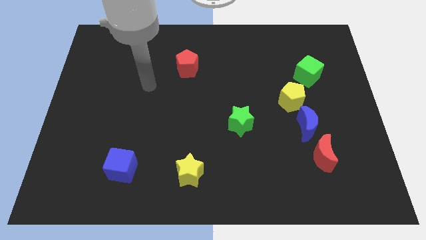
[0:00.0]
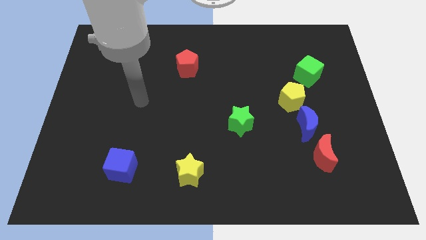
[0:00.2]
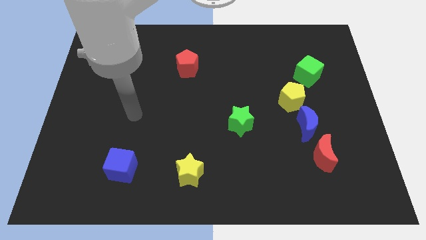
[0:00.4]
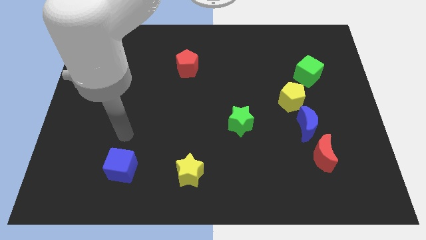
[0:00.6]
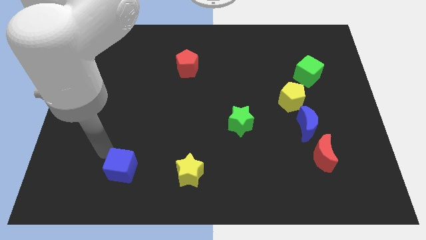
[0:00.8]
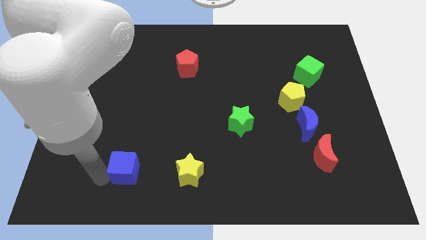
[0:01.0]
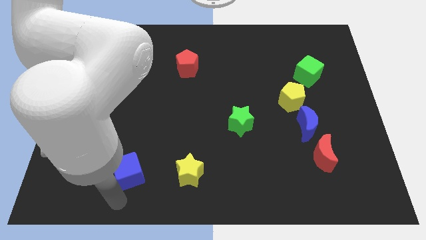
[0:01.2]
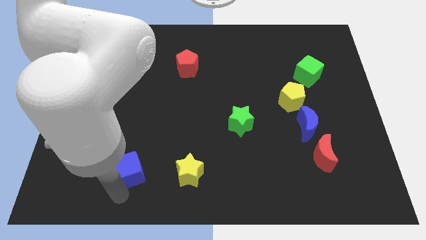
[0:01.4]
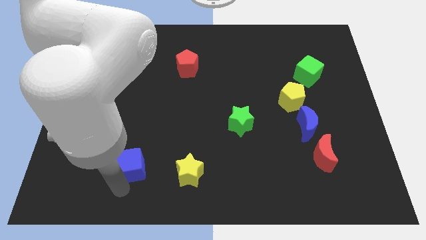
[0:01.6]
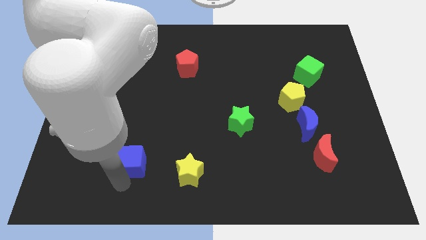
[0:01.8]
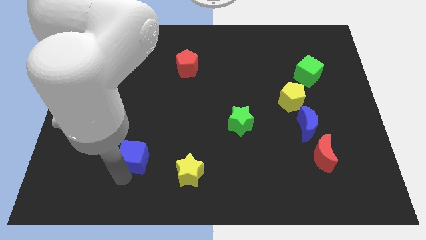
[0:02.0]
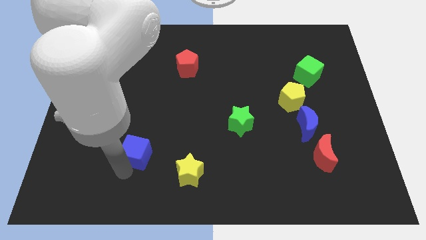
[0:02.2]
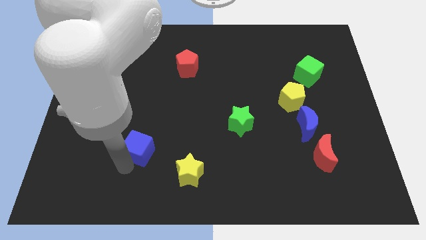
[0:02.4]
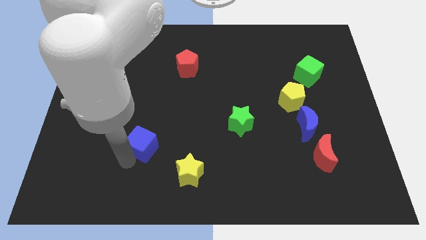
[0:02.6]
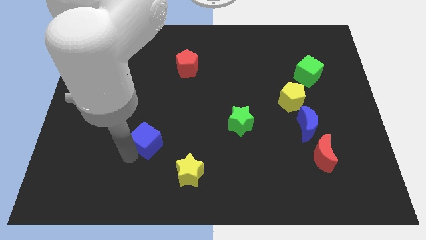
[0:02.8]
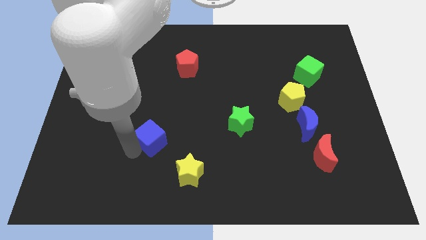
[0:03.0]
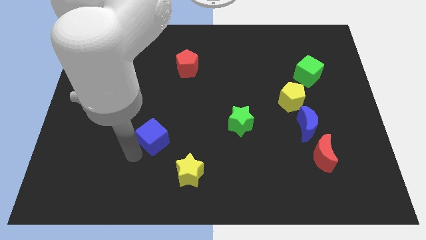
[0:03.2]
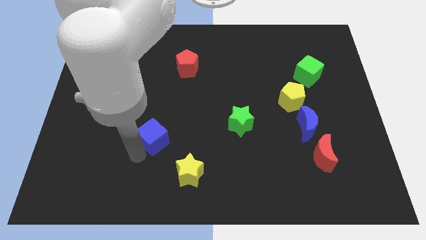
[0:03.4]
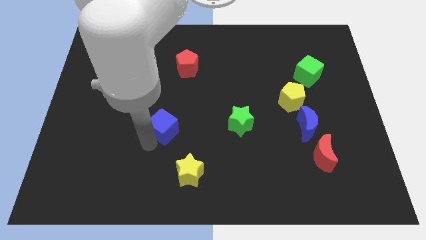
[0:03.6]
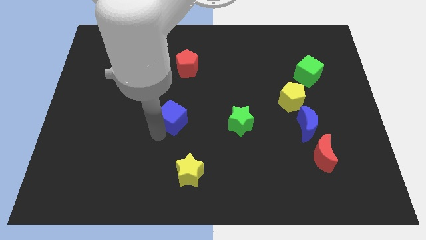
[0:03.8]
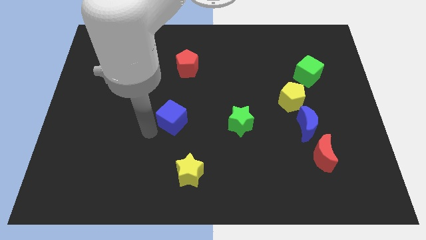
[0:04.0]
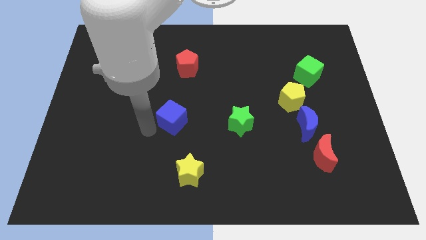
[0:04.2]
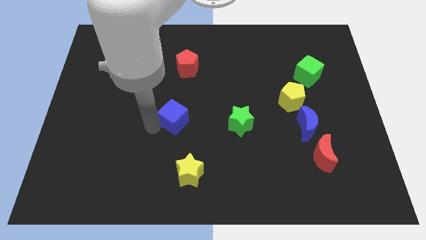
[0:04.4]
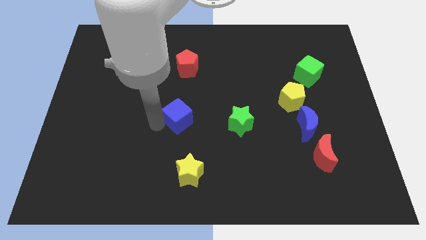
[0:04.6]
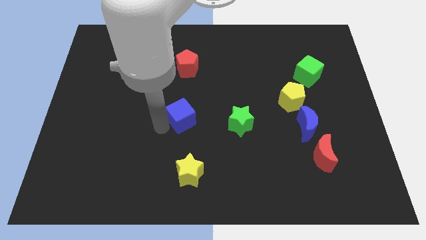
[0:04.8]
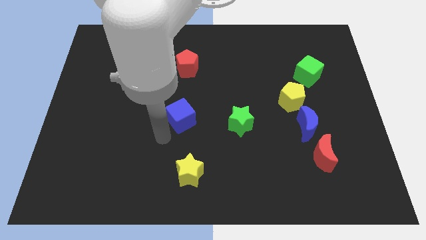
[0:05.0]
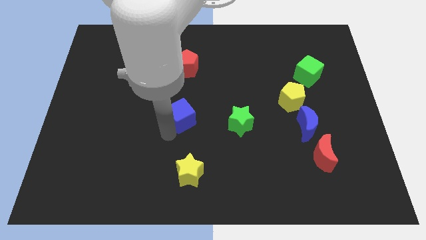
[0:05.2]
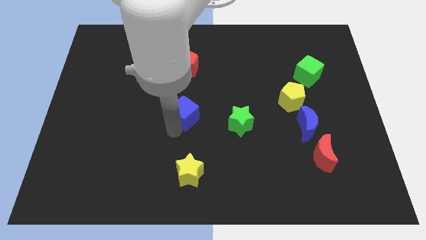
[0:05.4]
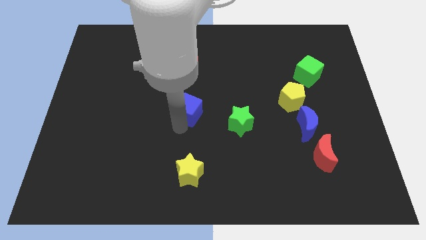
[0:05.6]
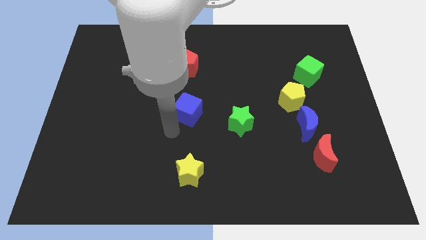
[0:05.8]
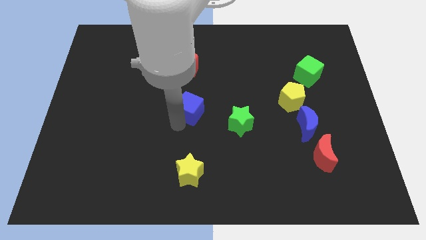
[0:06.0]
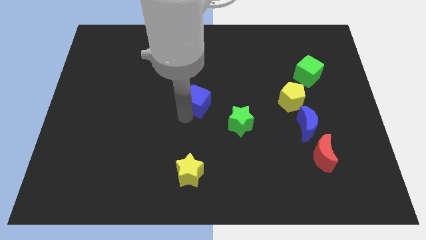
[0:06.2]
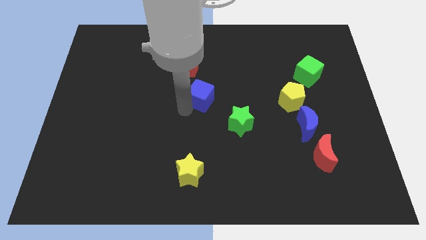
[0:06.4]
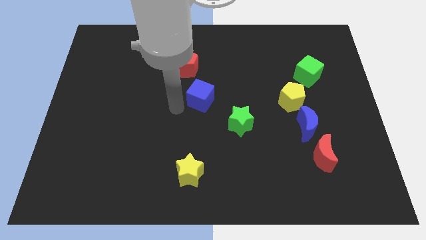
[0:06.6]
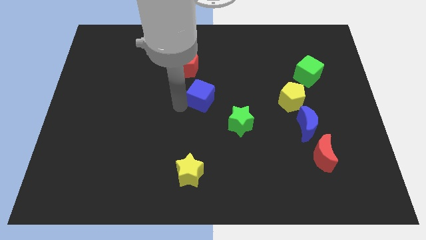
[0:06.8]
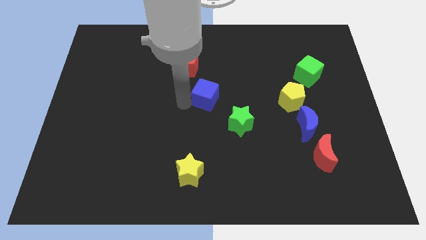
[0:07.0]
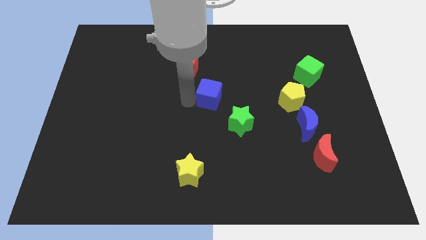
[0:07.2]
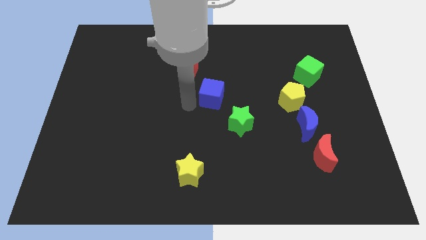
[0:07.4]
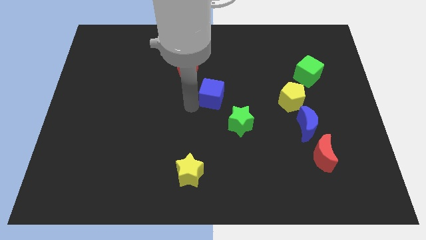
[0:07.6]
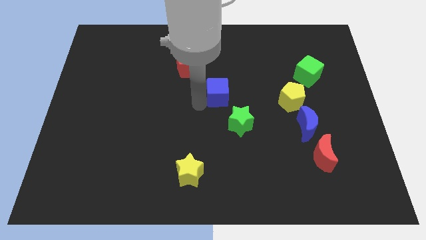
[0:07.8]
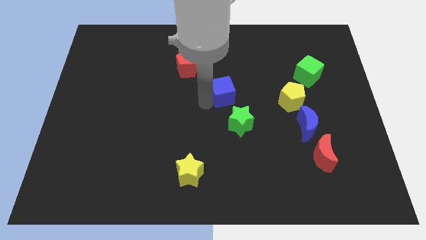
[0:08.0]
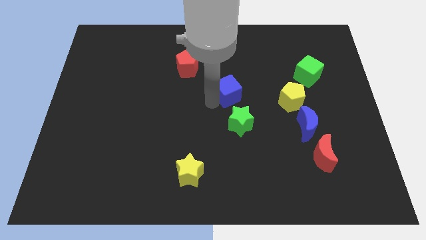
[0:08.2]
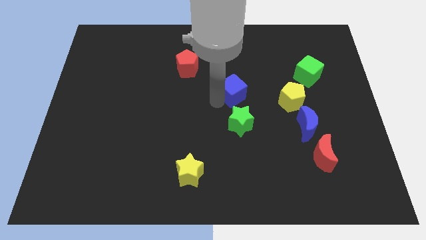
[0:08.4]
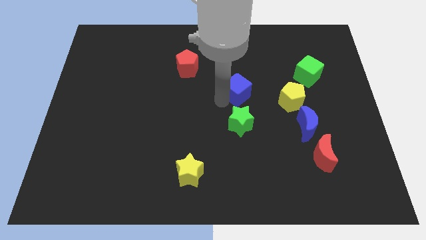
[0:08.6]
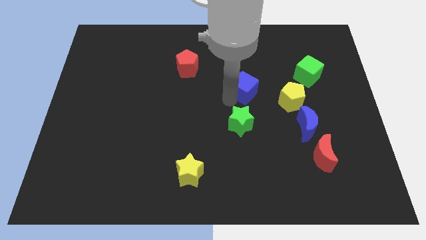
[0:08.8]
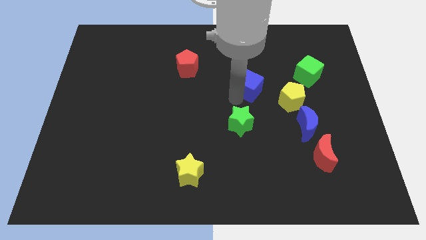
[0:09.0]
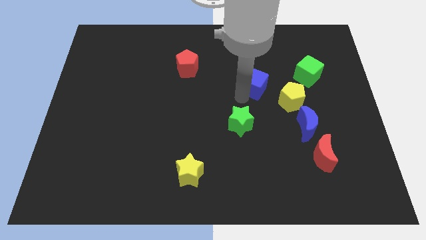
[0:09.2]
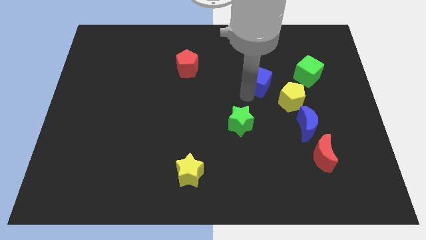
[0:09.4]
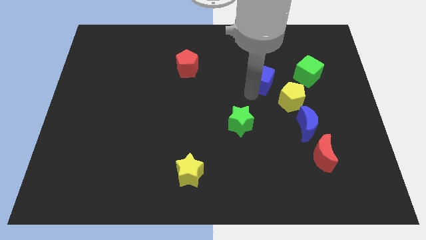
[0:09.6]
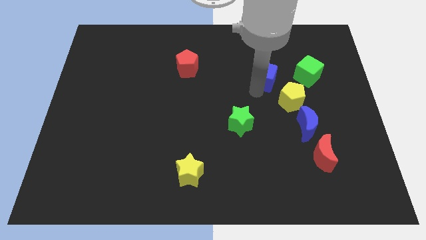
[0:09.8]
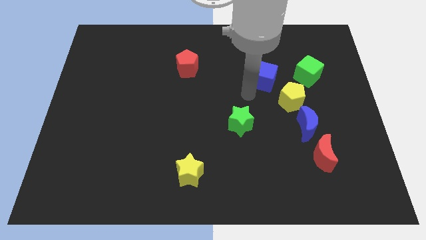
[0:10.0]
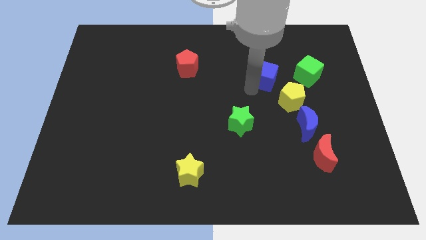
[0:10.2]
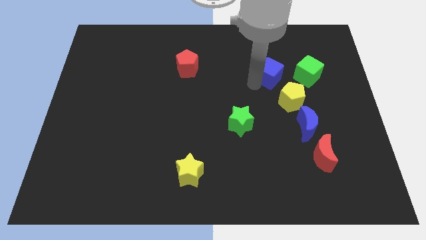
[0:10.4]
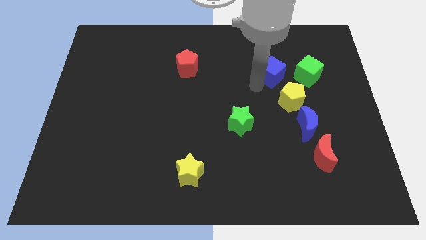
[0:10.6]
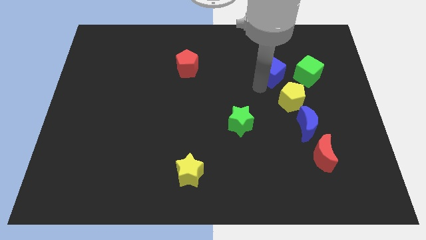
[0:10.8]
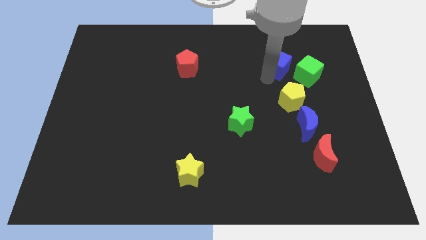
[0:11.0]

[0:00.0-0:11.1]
push the blue cube to the top left of the green cube

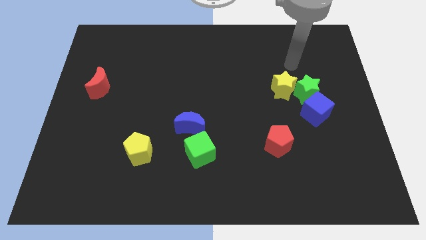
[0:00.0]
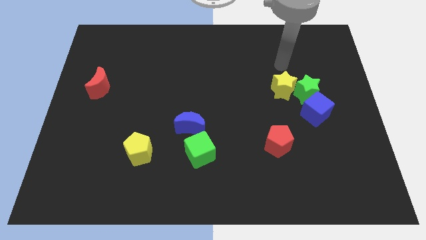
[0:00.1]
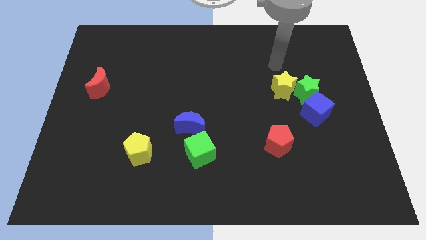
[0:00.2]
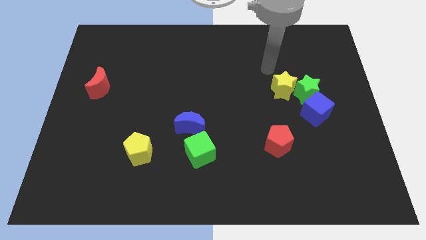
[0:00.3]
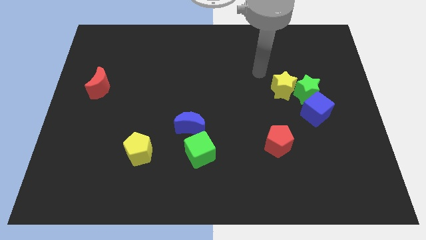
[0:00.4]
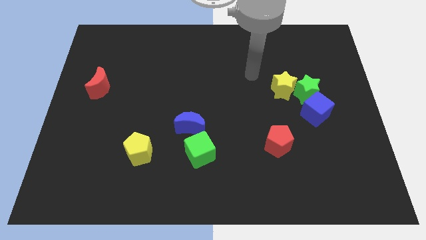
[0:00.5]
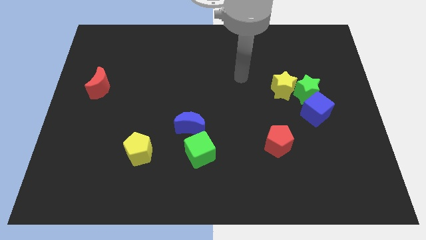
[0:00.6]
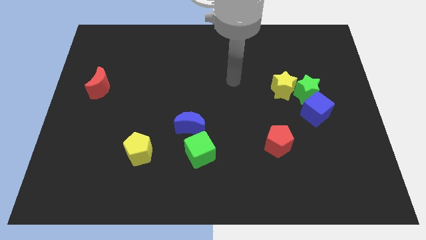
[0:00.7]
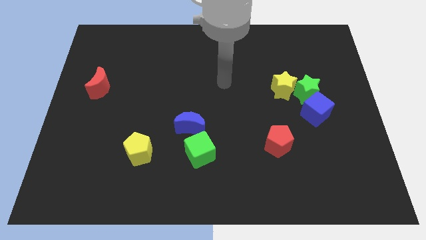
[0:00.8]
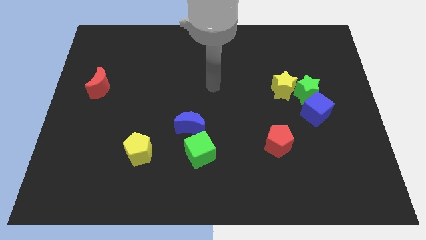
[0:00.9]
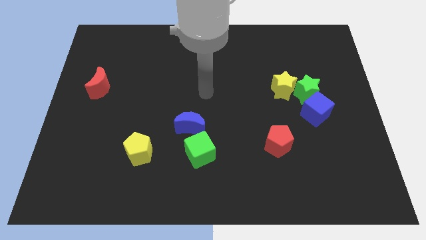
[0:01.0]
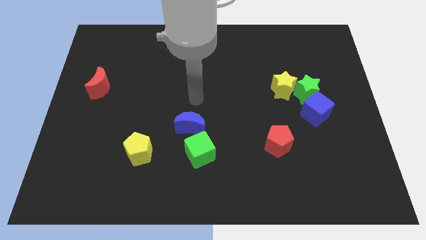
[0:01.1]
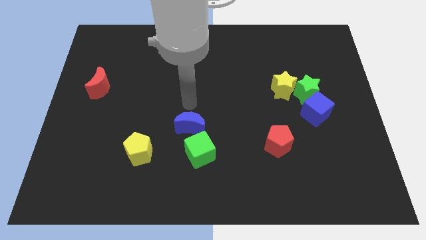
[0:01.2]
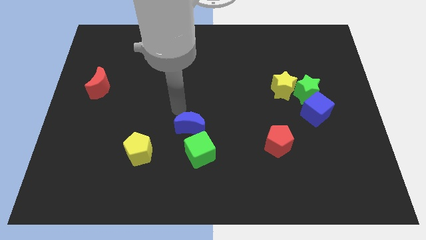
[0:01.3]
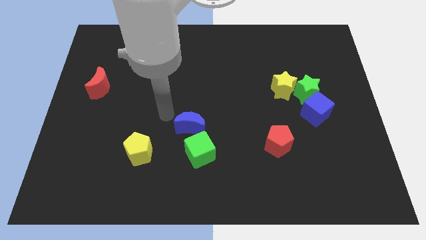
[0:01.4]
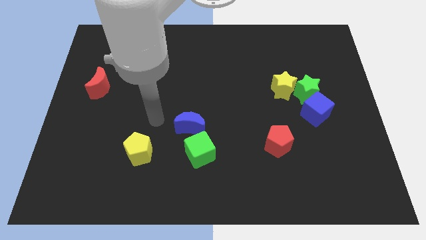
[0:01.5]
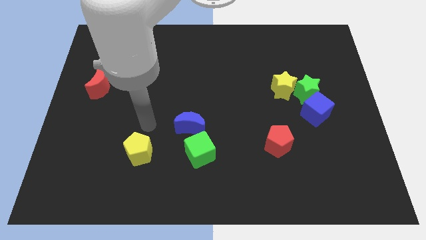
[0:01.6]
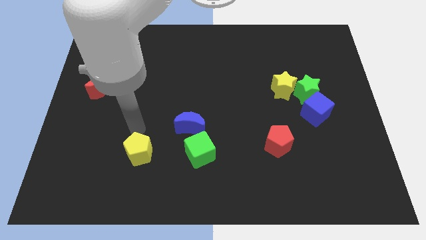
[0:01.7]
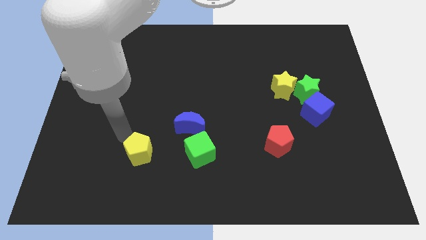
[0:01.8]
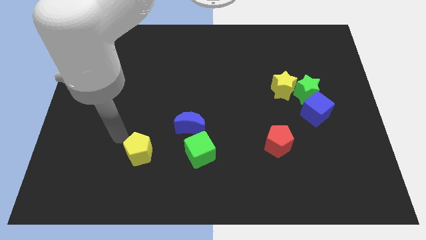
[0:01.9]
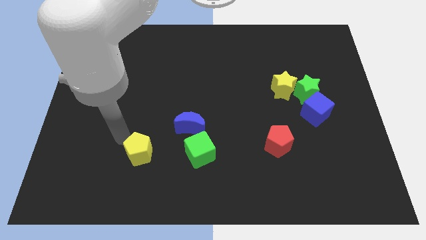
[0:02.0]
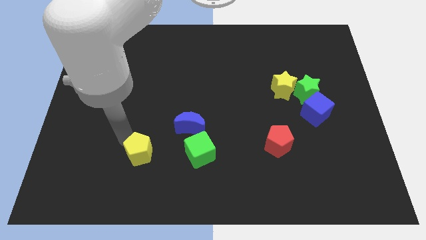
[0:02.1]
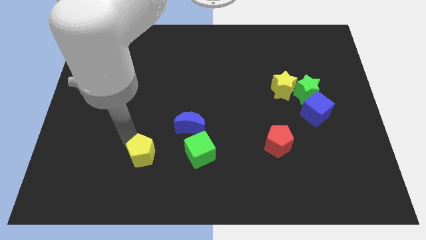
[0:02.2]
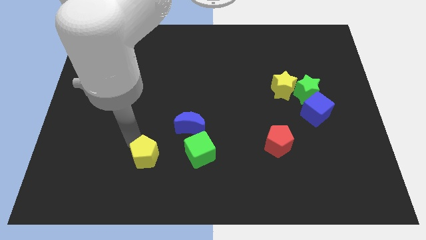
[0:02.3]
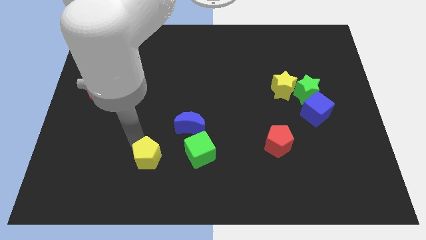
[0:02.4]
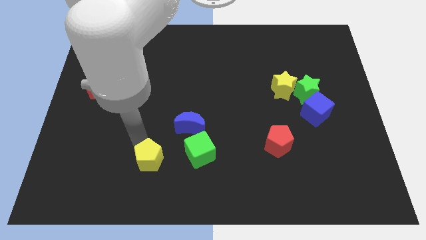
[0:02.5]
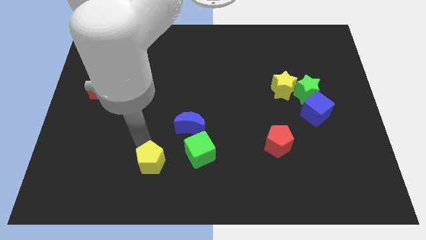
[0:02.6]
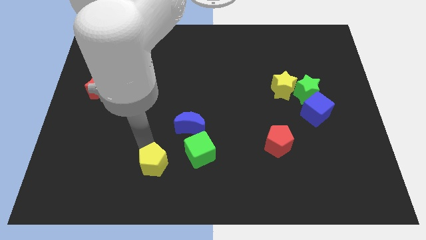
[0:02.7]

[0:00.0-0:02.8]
move the yellow pentagon to the bottom left side of the green cube

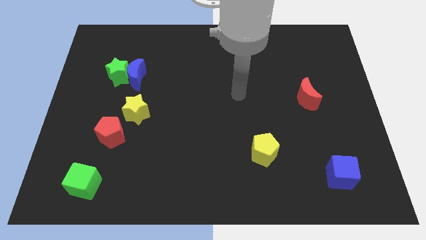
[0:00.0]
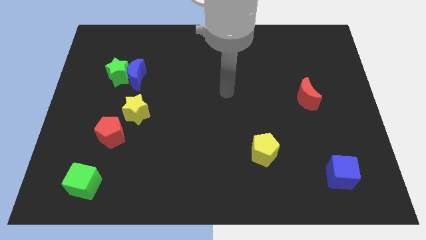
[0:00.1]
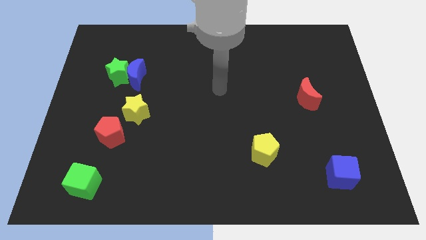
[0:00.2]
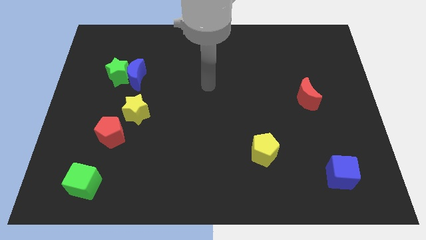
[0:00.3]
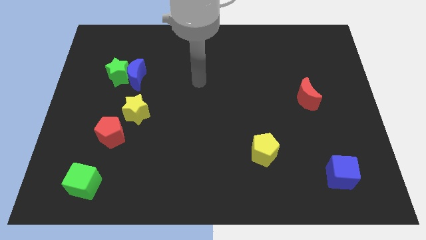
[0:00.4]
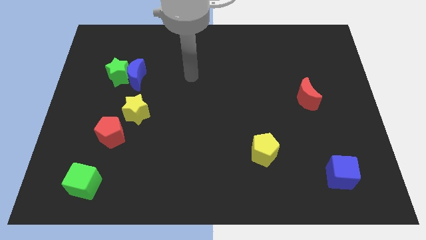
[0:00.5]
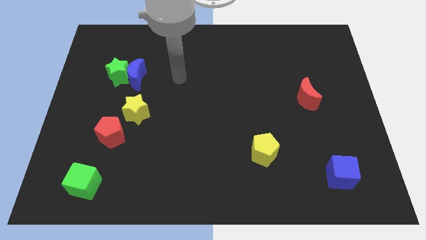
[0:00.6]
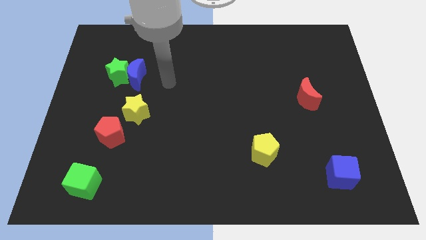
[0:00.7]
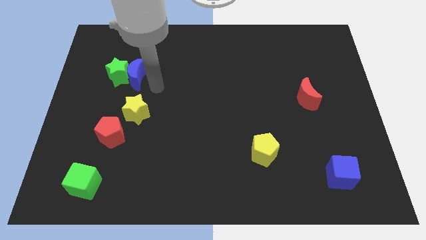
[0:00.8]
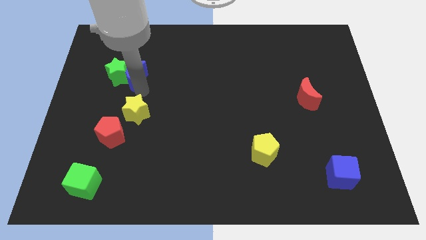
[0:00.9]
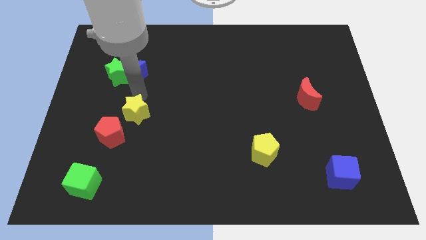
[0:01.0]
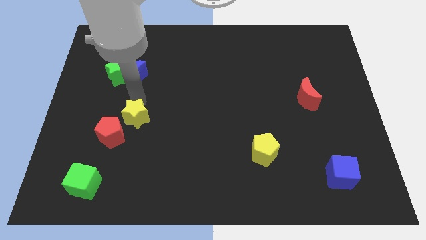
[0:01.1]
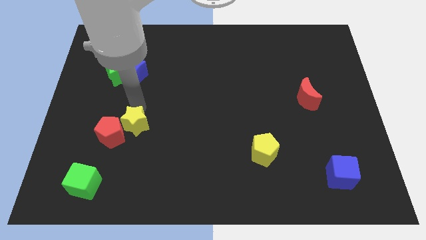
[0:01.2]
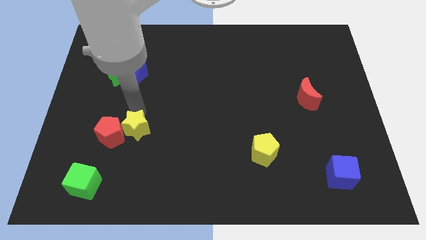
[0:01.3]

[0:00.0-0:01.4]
put the yellow star to the bottom right side of the red pentagon
